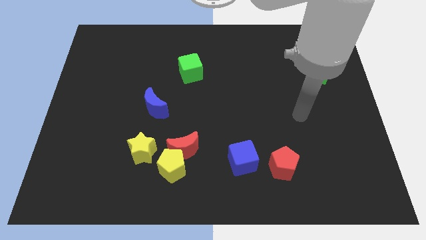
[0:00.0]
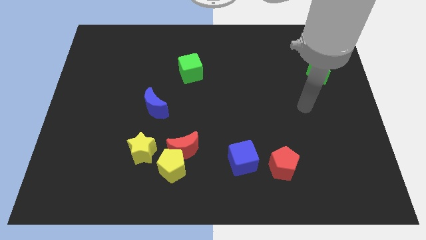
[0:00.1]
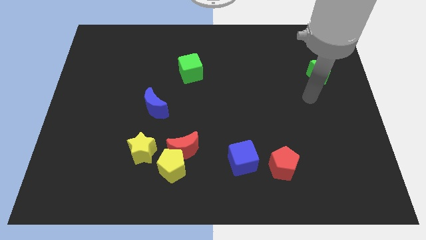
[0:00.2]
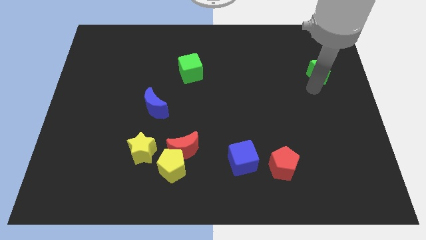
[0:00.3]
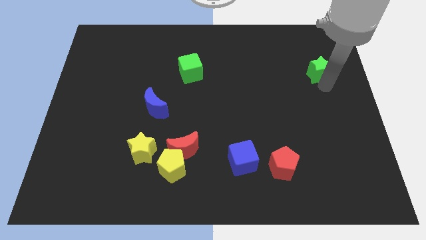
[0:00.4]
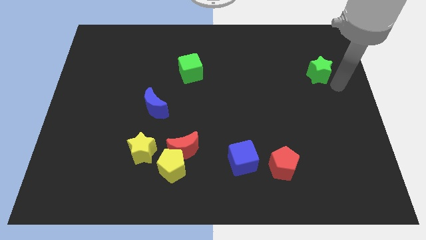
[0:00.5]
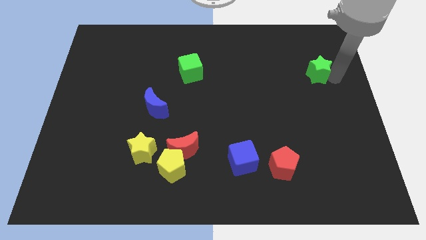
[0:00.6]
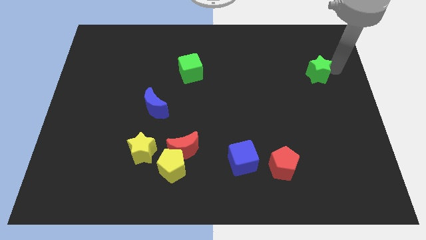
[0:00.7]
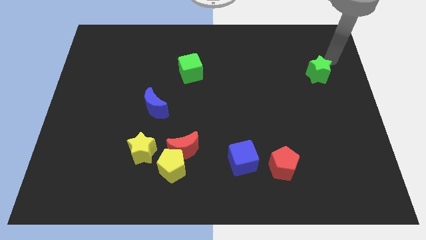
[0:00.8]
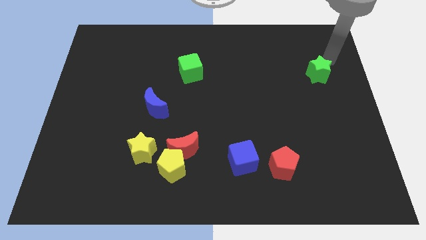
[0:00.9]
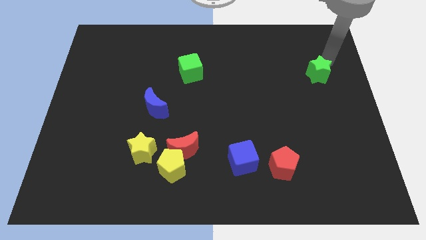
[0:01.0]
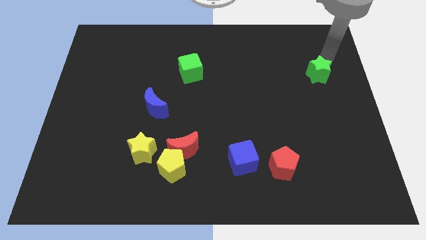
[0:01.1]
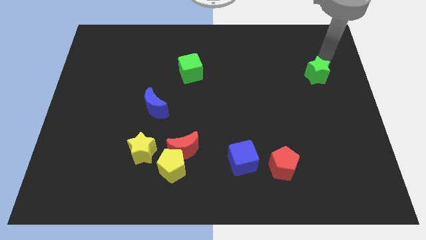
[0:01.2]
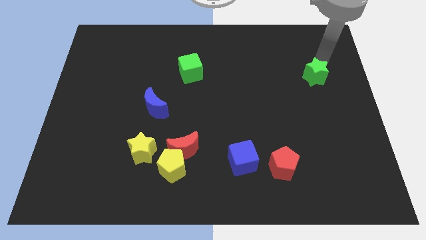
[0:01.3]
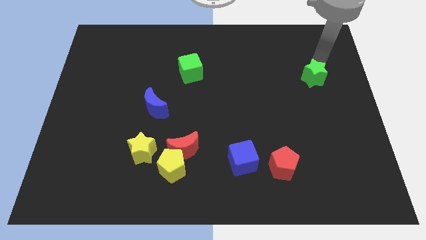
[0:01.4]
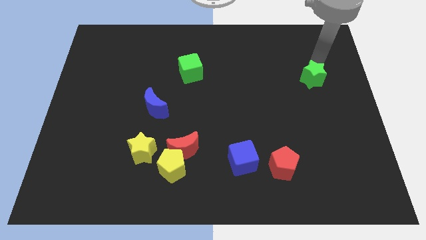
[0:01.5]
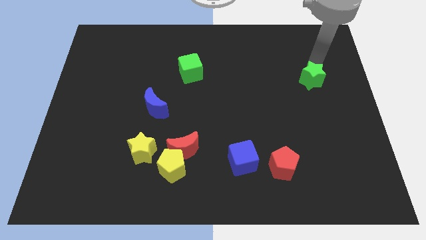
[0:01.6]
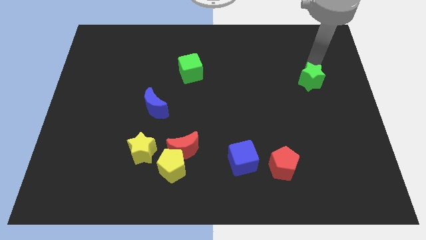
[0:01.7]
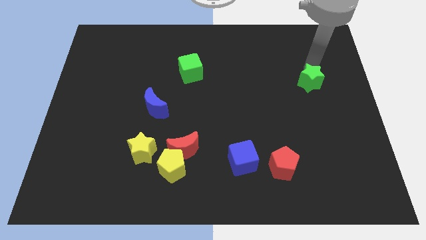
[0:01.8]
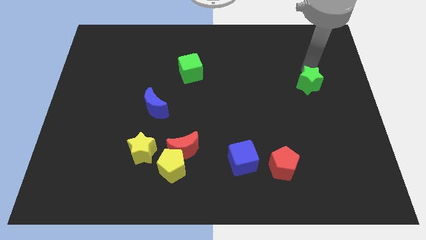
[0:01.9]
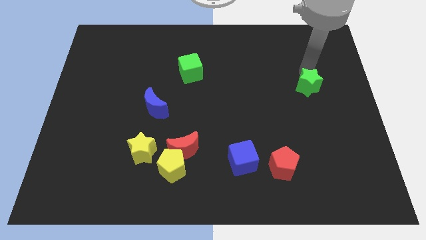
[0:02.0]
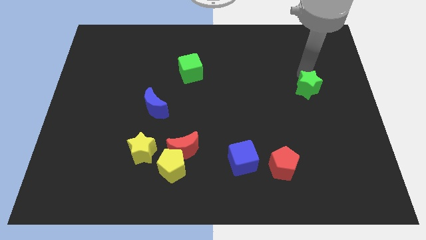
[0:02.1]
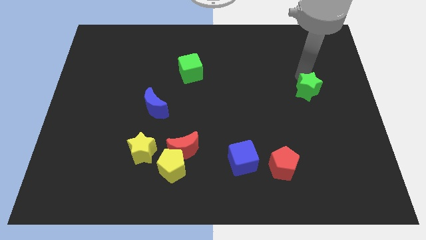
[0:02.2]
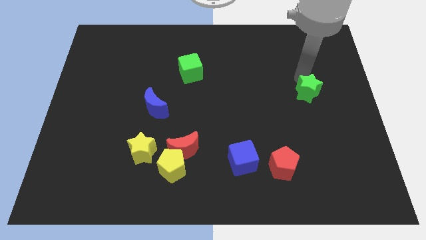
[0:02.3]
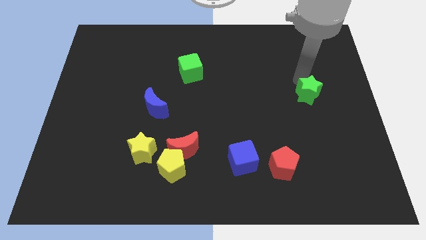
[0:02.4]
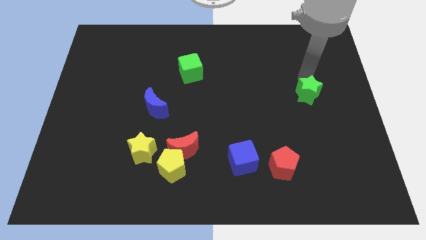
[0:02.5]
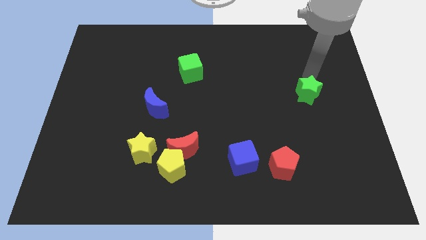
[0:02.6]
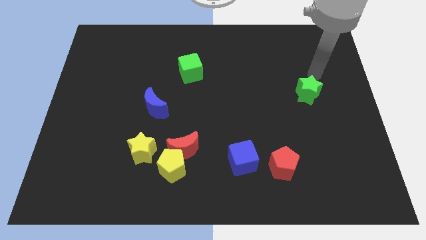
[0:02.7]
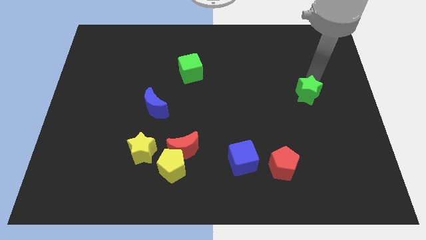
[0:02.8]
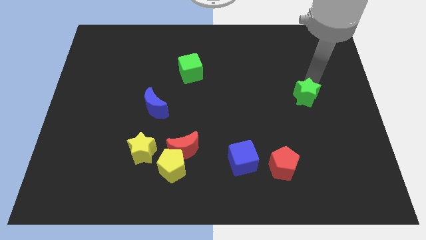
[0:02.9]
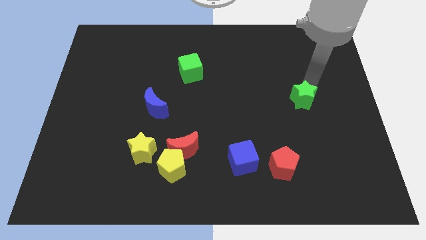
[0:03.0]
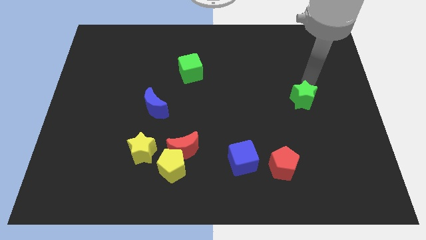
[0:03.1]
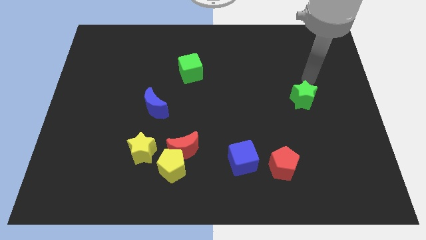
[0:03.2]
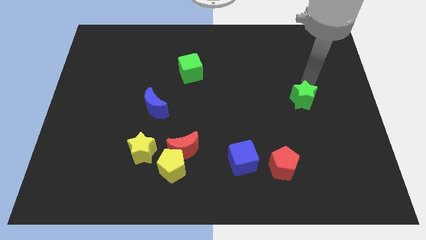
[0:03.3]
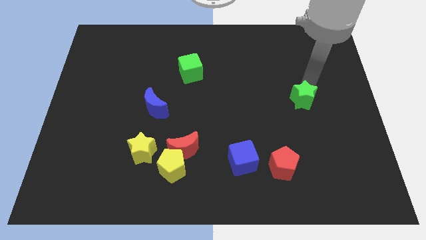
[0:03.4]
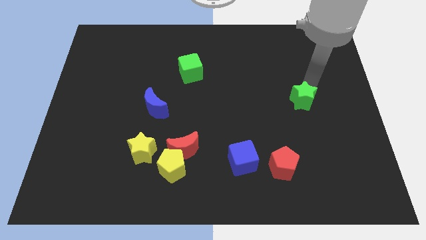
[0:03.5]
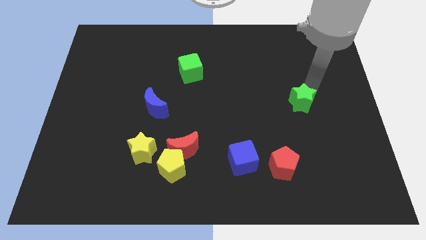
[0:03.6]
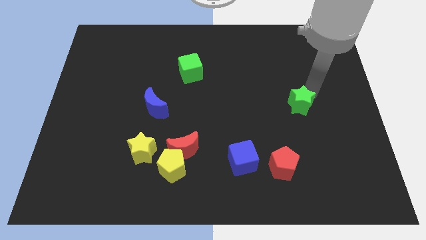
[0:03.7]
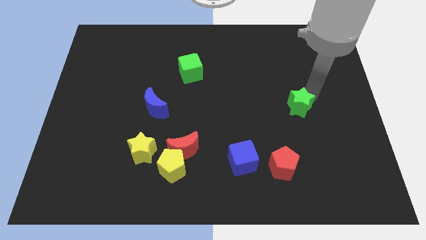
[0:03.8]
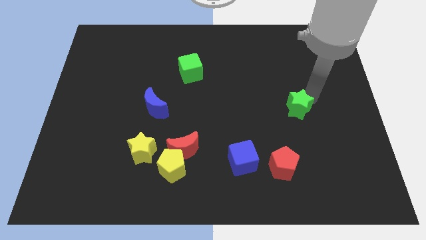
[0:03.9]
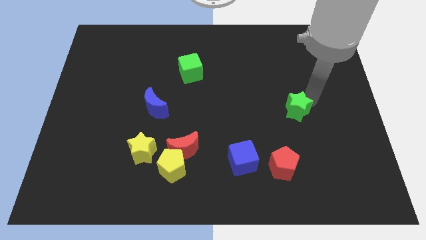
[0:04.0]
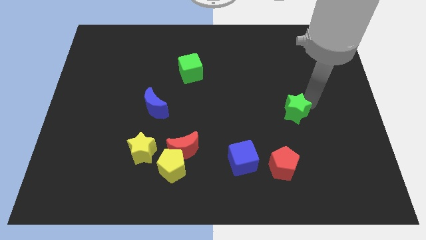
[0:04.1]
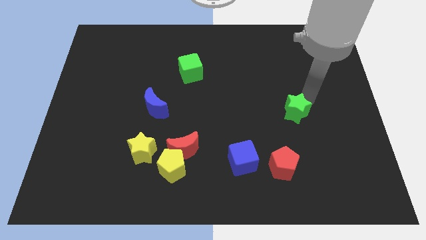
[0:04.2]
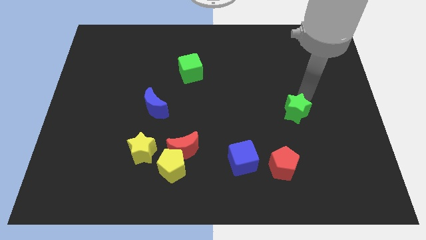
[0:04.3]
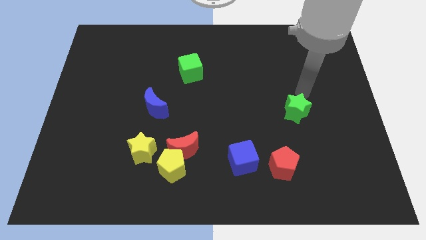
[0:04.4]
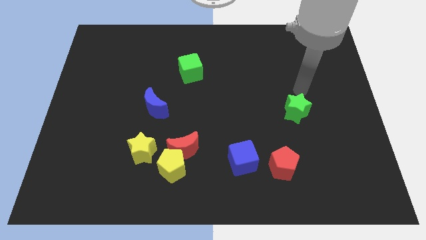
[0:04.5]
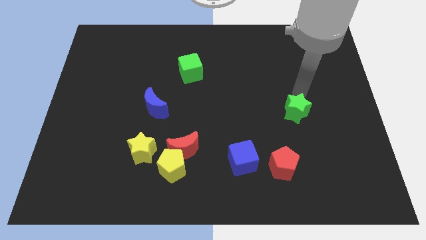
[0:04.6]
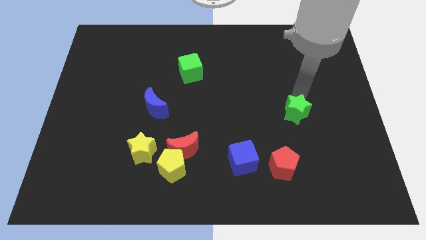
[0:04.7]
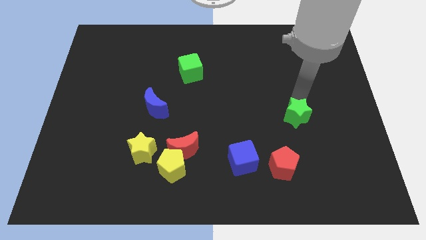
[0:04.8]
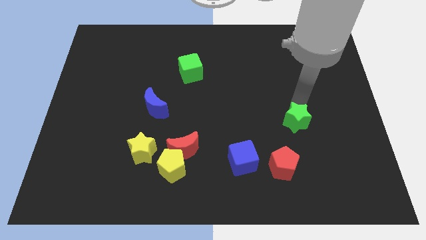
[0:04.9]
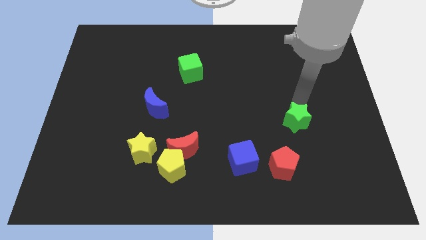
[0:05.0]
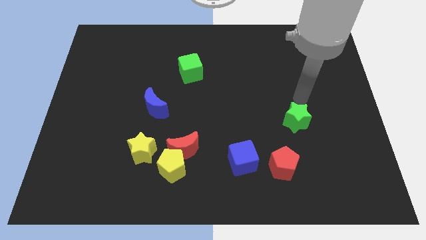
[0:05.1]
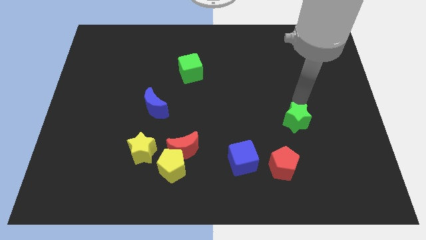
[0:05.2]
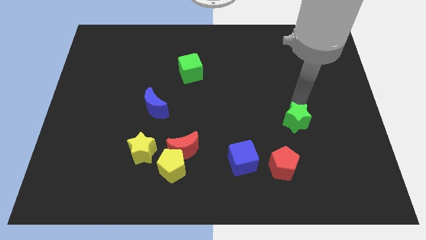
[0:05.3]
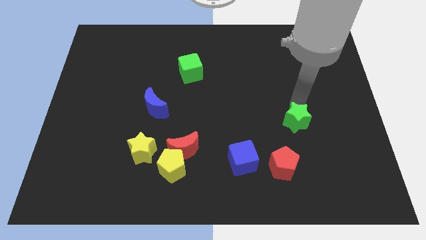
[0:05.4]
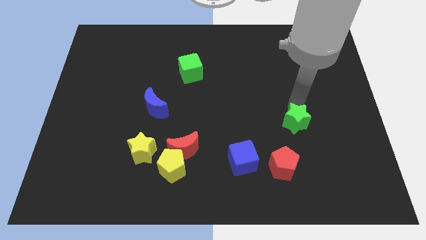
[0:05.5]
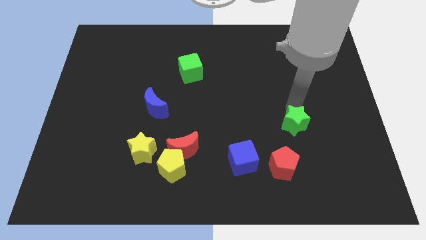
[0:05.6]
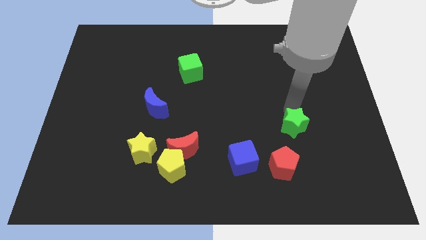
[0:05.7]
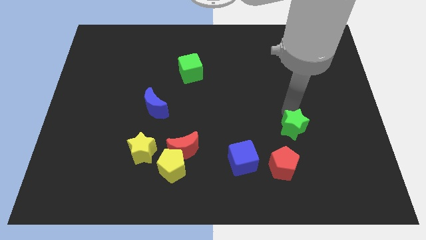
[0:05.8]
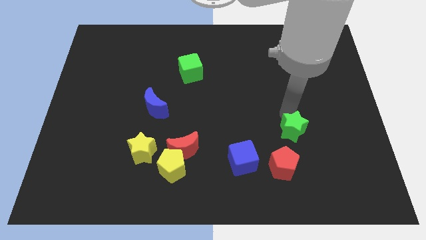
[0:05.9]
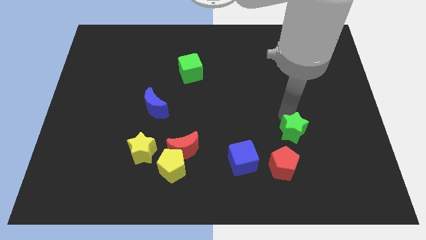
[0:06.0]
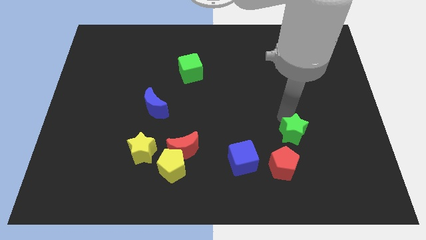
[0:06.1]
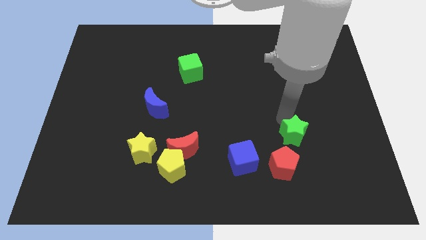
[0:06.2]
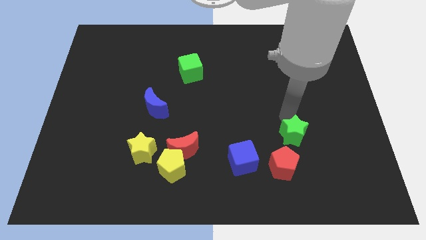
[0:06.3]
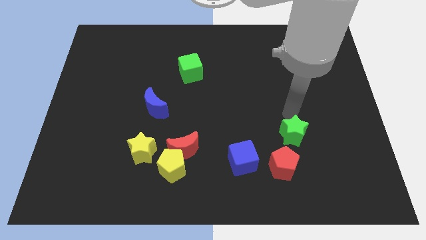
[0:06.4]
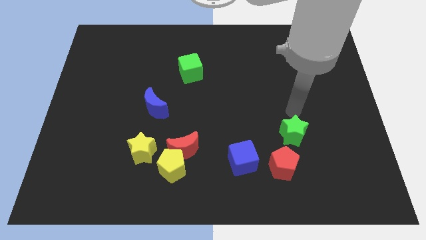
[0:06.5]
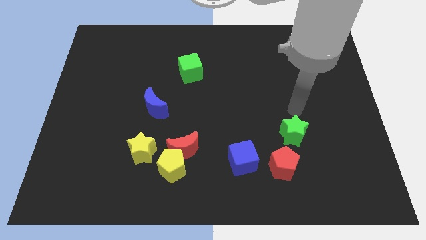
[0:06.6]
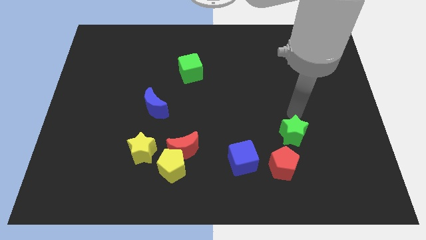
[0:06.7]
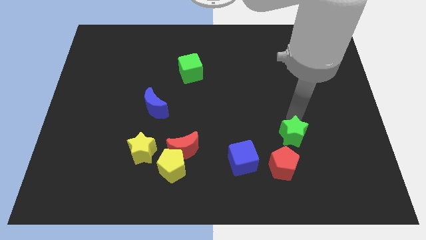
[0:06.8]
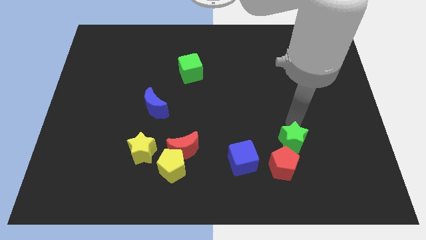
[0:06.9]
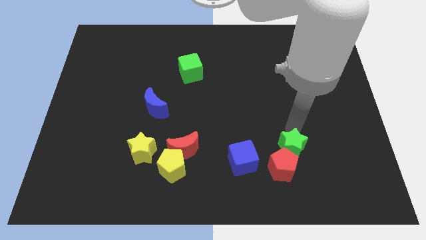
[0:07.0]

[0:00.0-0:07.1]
move the green star close to the red pentagon

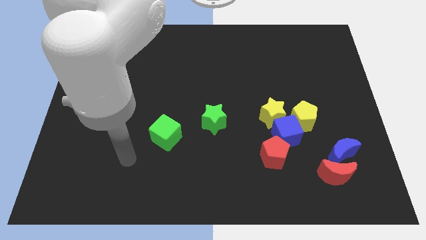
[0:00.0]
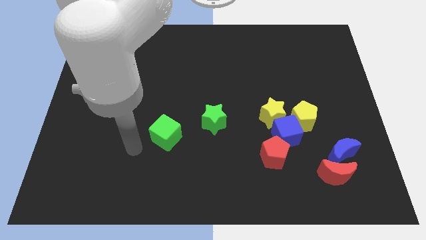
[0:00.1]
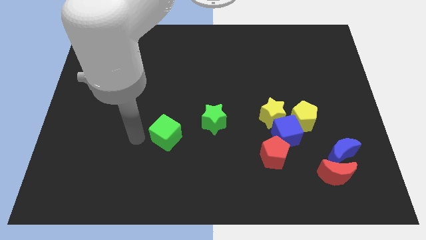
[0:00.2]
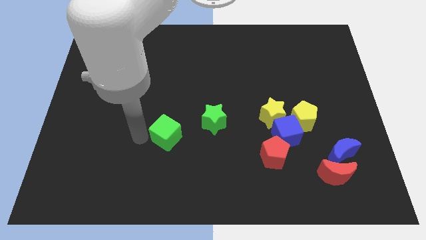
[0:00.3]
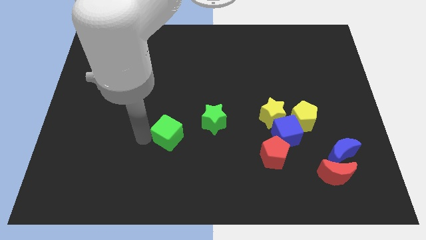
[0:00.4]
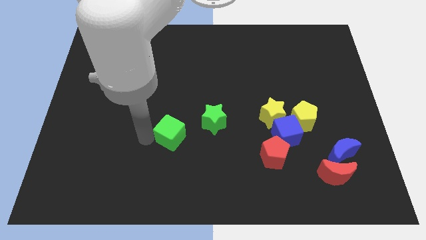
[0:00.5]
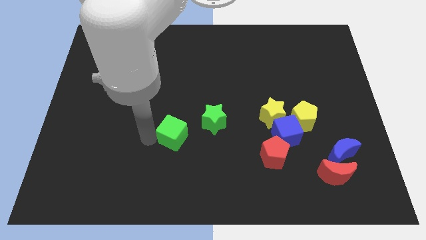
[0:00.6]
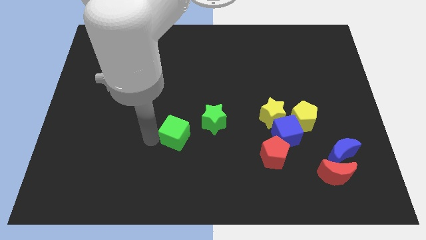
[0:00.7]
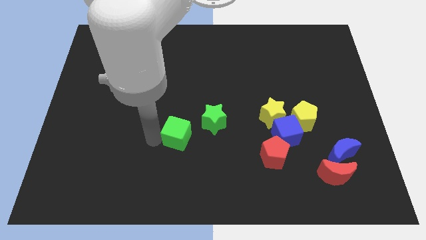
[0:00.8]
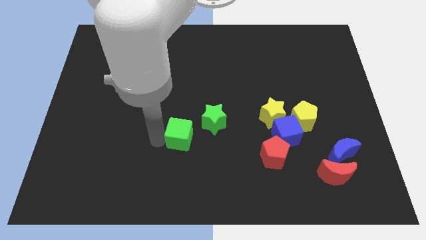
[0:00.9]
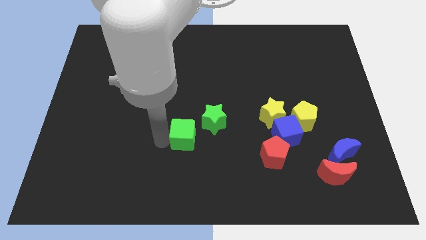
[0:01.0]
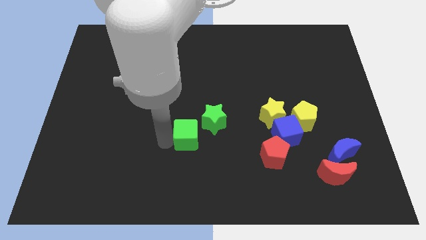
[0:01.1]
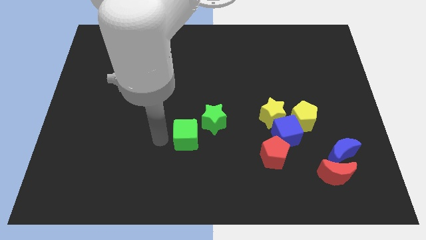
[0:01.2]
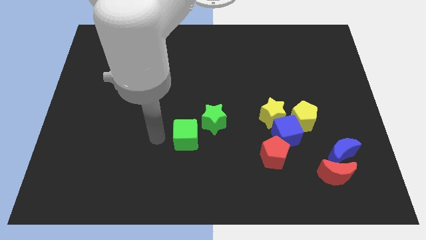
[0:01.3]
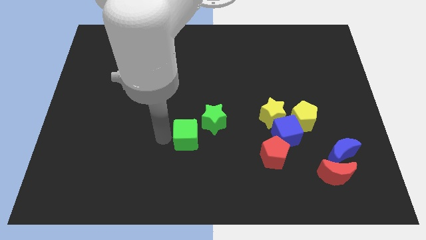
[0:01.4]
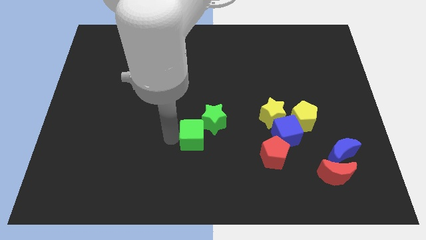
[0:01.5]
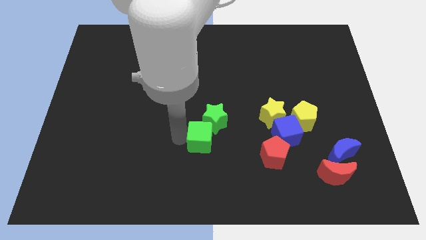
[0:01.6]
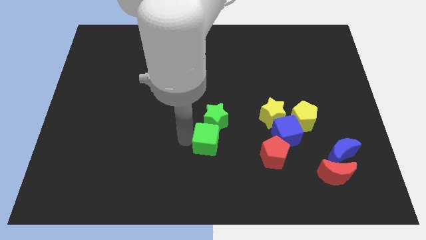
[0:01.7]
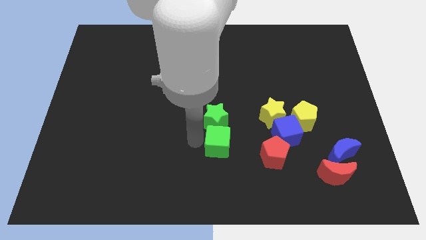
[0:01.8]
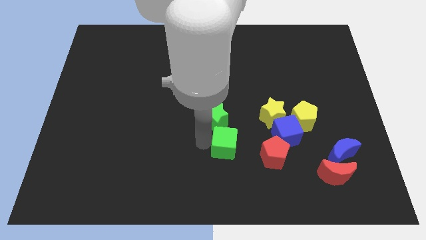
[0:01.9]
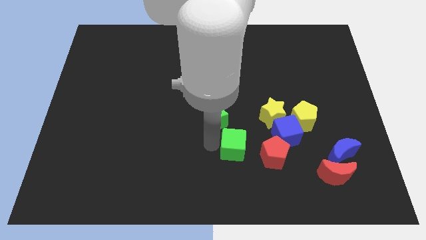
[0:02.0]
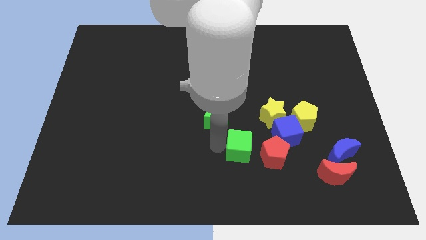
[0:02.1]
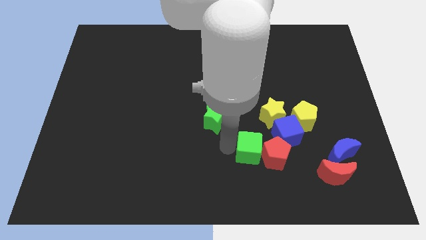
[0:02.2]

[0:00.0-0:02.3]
put the green cube next to the red pentagon
